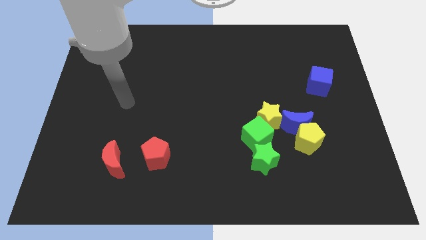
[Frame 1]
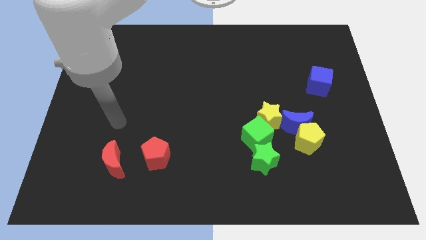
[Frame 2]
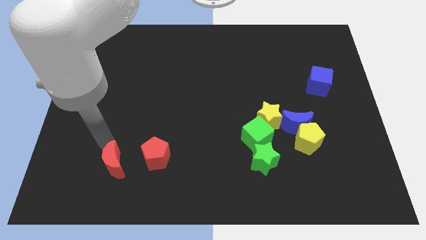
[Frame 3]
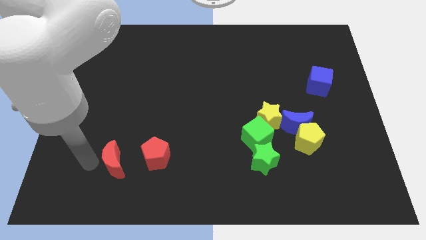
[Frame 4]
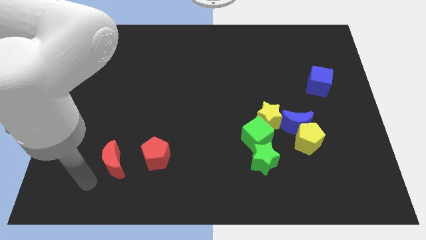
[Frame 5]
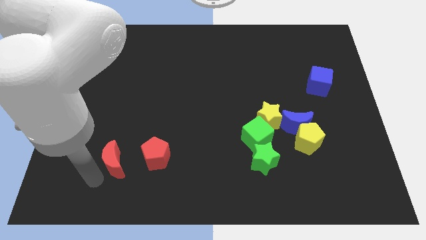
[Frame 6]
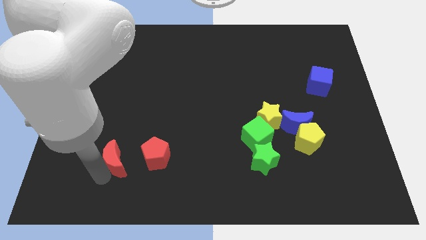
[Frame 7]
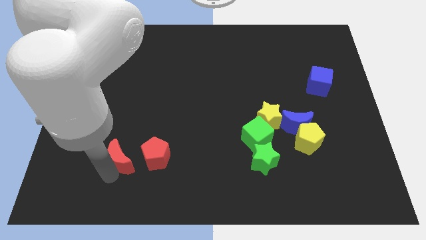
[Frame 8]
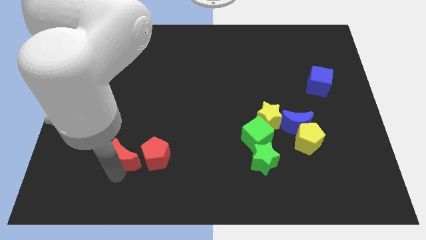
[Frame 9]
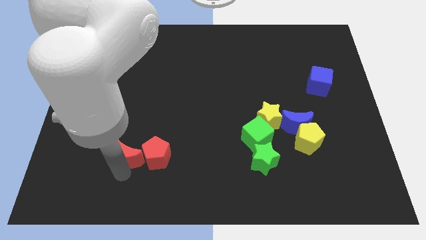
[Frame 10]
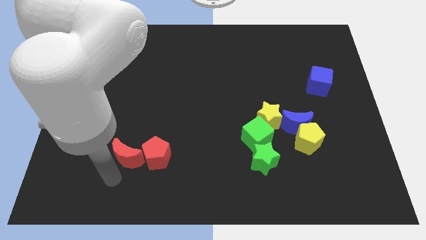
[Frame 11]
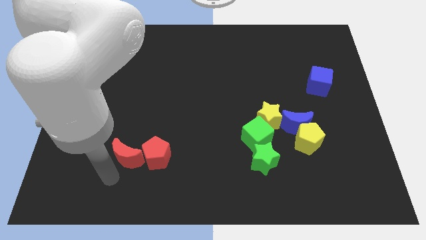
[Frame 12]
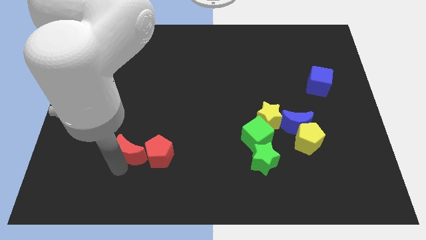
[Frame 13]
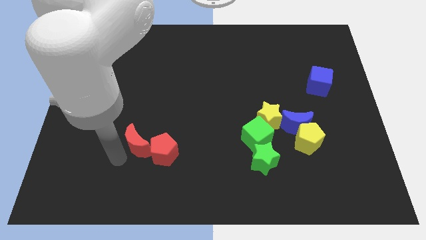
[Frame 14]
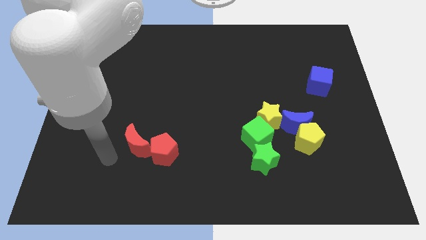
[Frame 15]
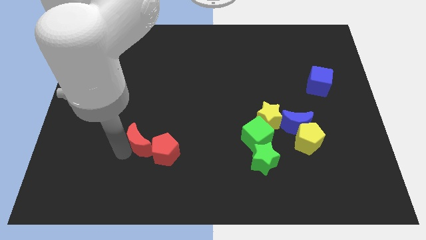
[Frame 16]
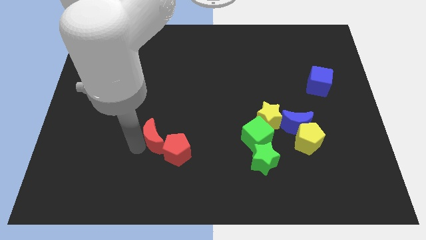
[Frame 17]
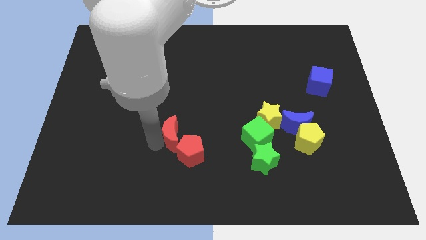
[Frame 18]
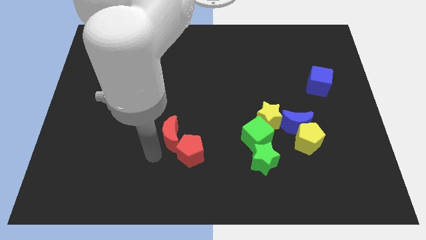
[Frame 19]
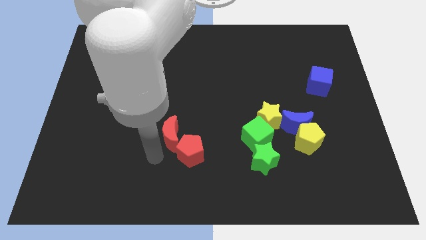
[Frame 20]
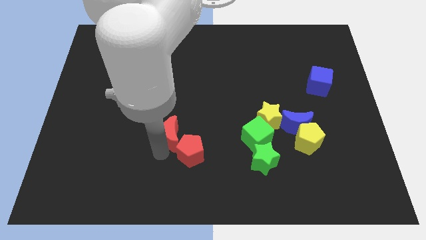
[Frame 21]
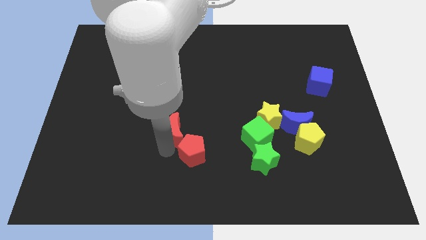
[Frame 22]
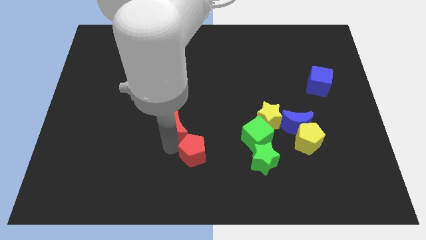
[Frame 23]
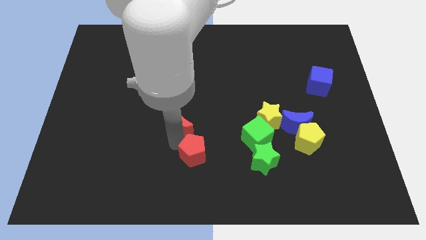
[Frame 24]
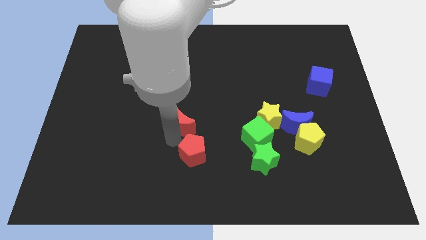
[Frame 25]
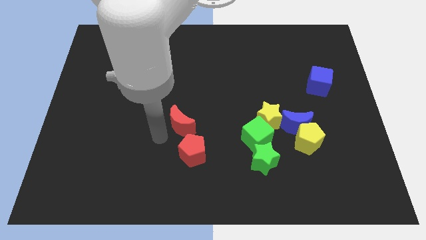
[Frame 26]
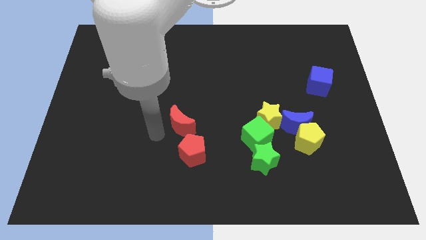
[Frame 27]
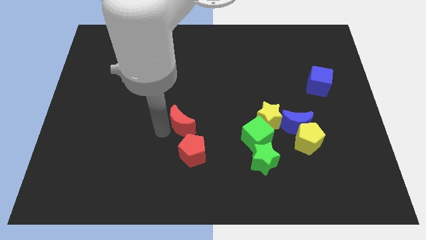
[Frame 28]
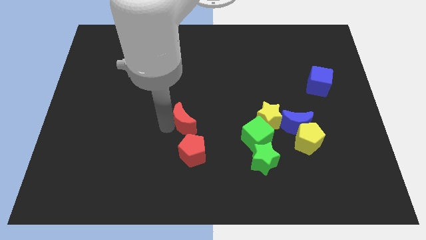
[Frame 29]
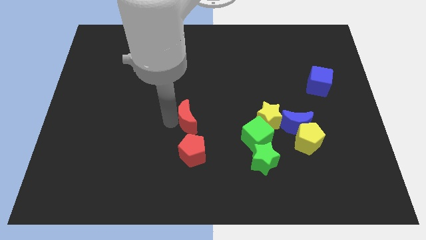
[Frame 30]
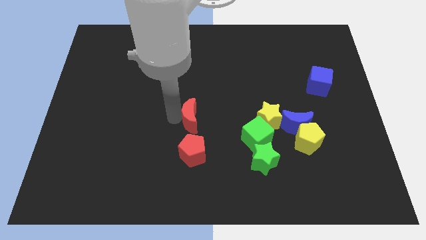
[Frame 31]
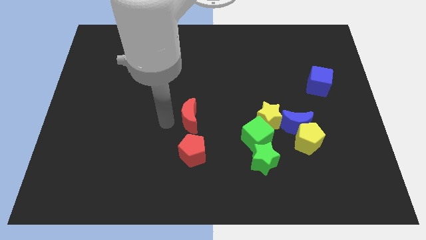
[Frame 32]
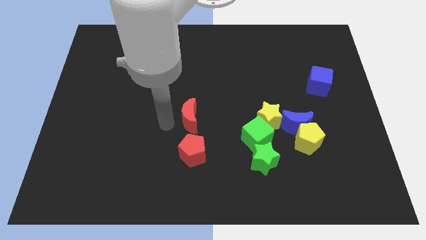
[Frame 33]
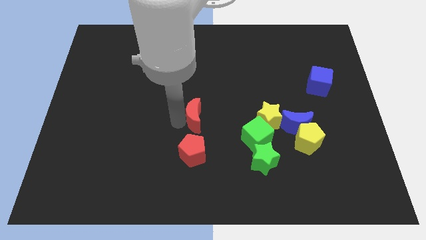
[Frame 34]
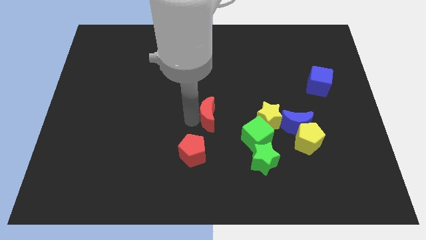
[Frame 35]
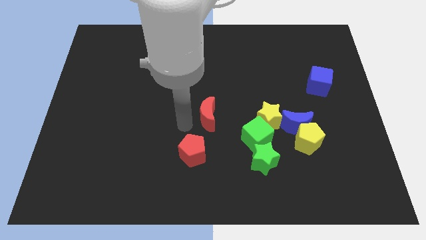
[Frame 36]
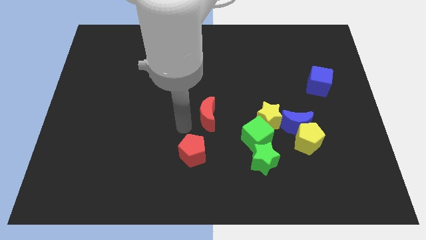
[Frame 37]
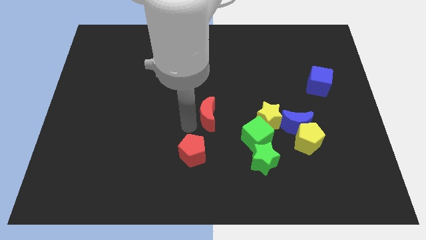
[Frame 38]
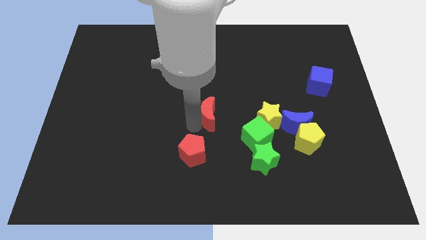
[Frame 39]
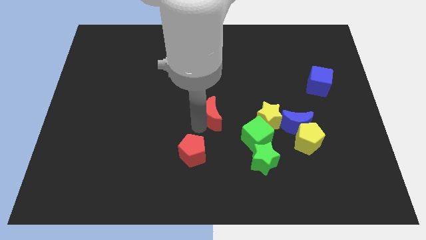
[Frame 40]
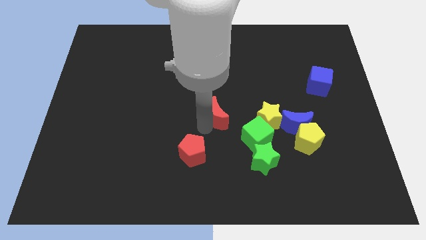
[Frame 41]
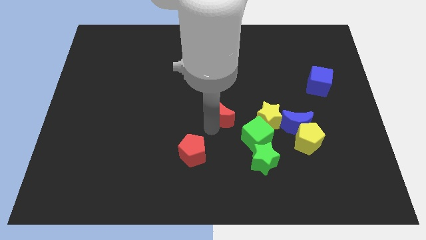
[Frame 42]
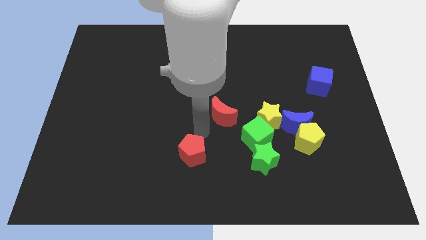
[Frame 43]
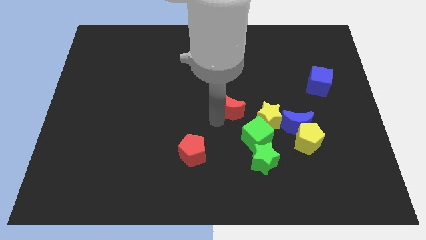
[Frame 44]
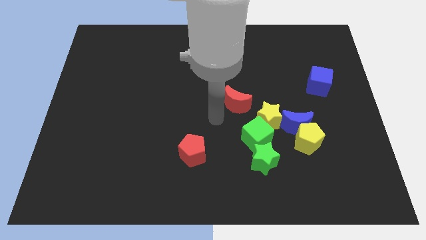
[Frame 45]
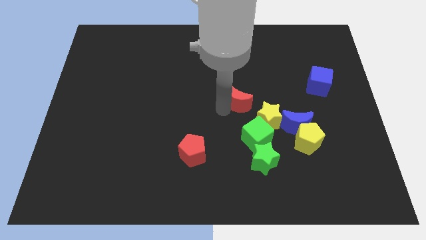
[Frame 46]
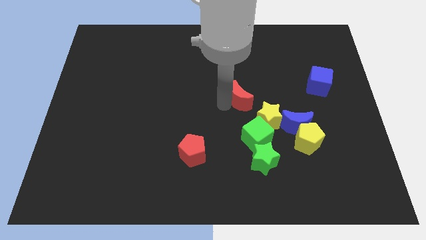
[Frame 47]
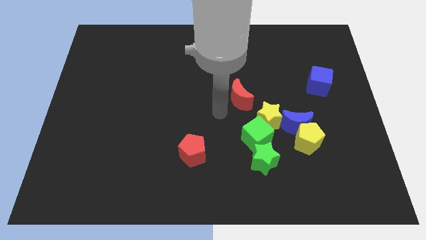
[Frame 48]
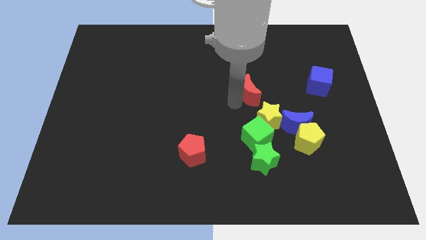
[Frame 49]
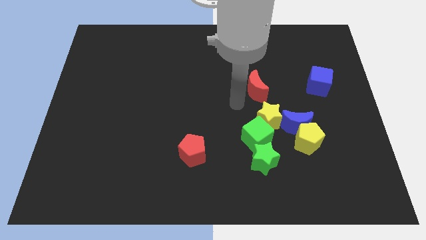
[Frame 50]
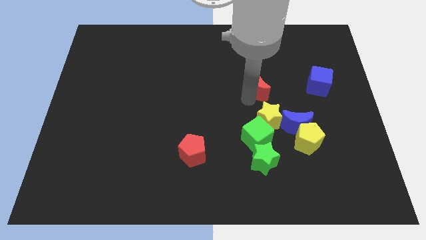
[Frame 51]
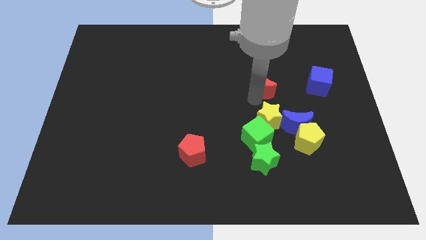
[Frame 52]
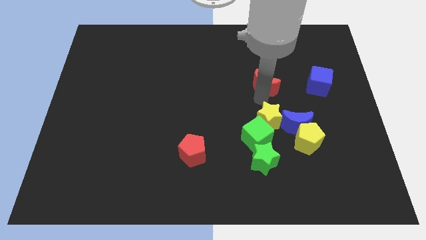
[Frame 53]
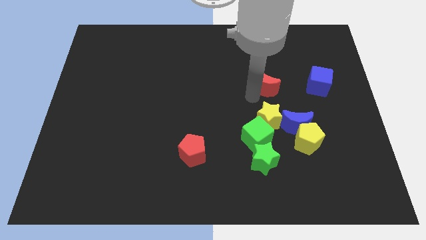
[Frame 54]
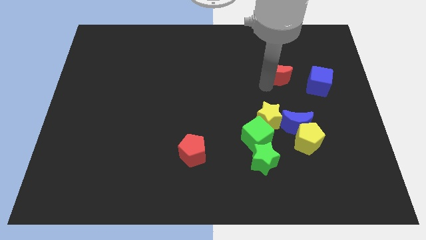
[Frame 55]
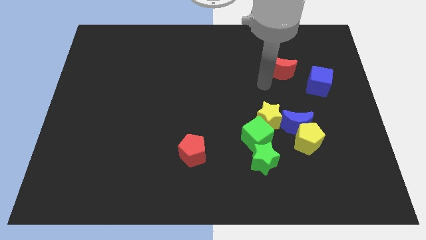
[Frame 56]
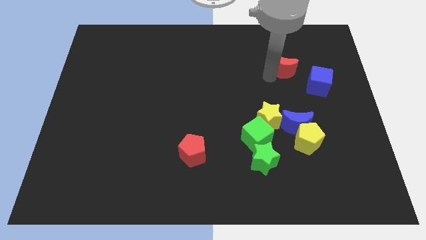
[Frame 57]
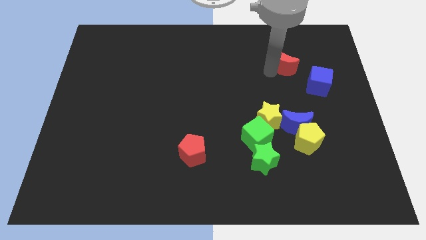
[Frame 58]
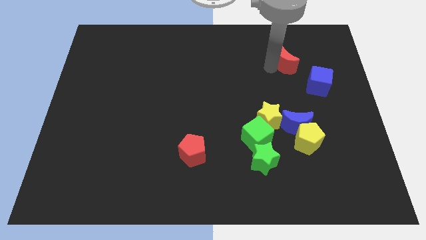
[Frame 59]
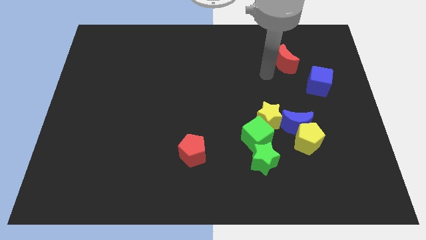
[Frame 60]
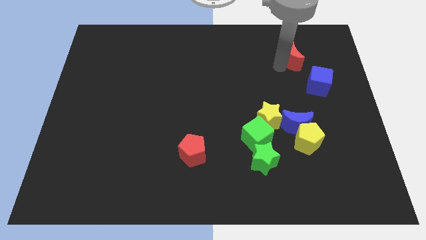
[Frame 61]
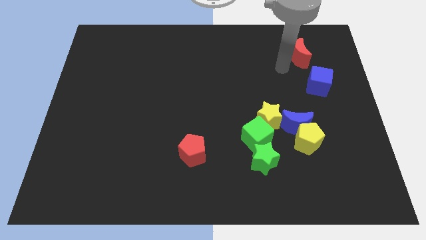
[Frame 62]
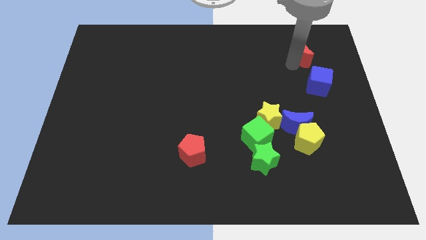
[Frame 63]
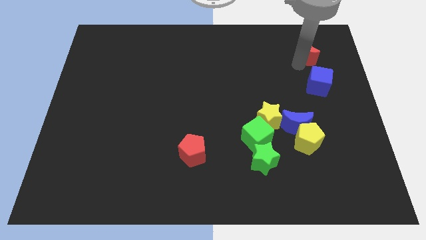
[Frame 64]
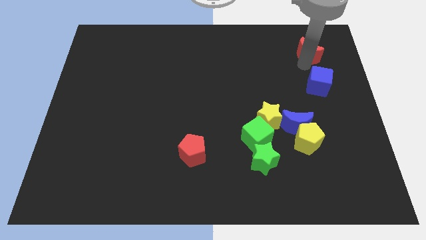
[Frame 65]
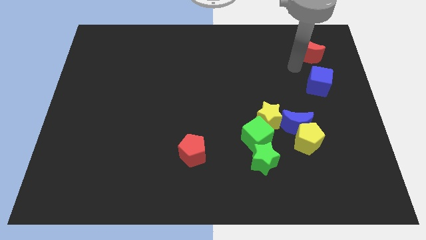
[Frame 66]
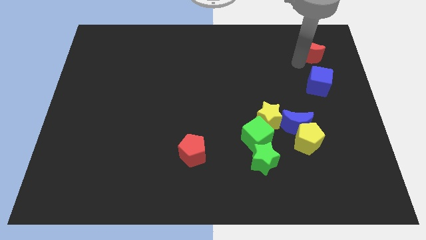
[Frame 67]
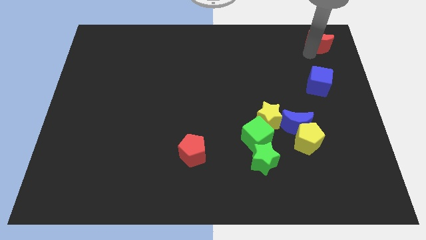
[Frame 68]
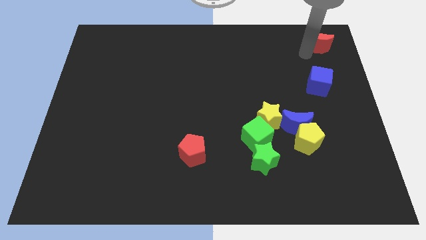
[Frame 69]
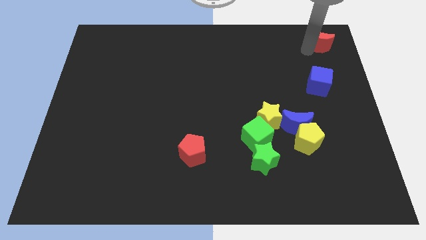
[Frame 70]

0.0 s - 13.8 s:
slide the red moon to the upper right corner

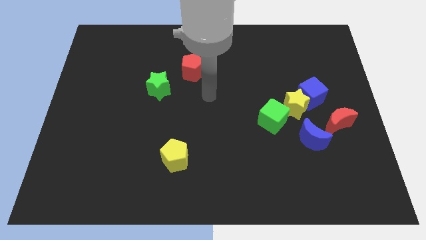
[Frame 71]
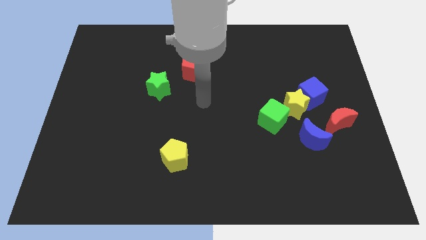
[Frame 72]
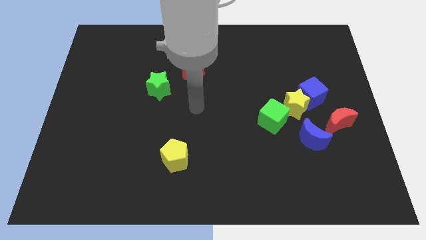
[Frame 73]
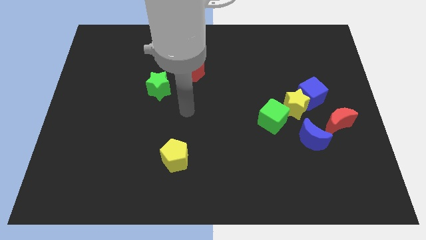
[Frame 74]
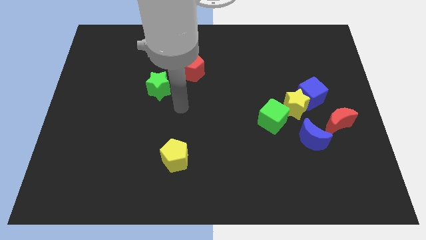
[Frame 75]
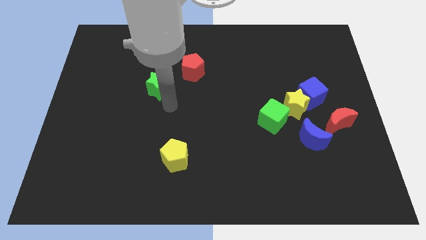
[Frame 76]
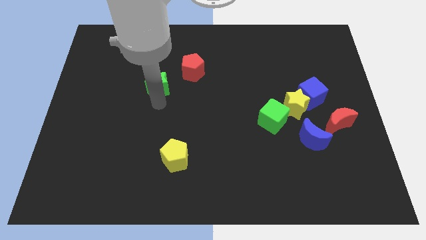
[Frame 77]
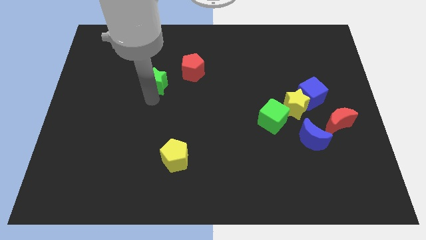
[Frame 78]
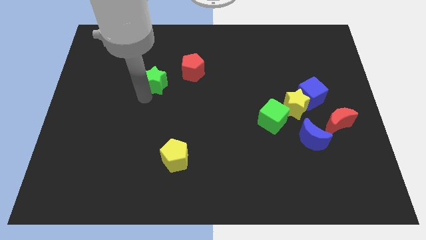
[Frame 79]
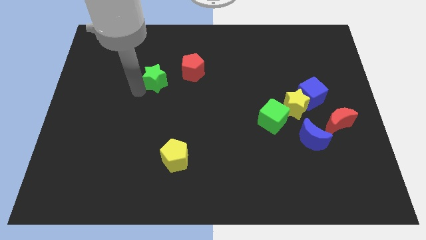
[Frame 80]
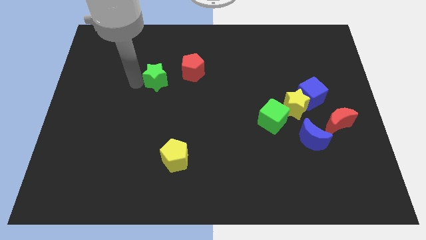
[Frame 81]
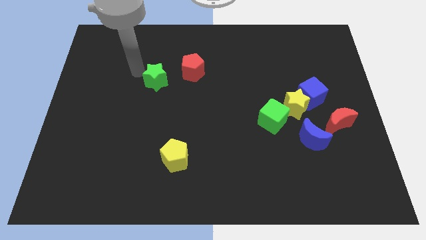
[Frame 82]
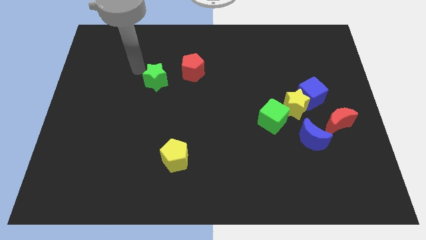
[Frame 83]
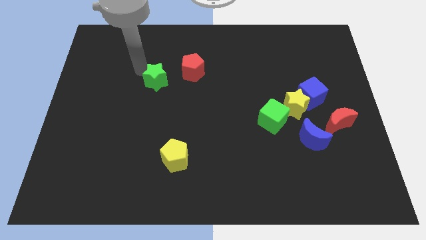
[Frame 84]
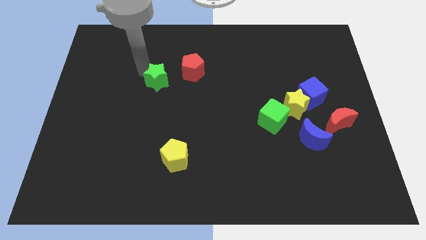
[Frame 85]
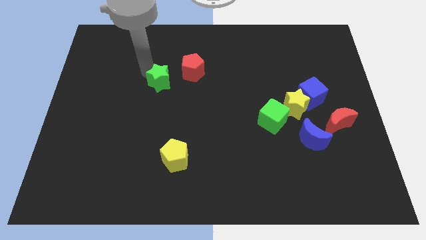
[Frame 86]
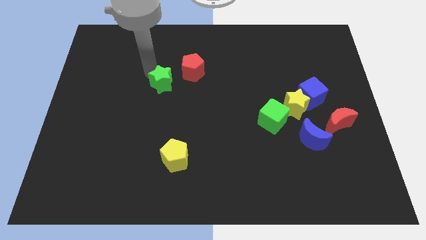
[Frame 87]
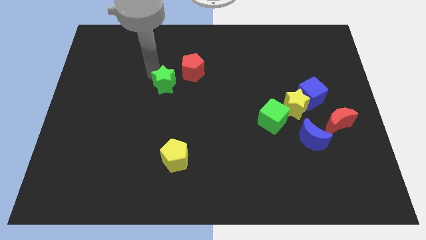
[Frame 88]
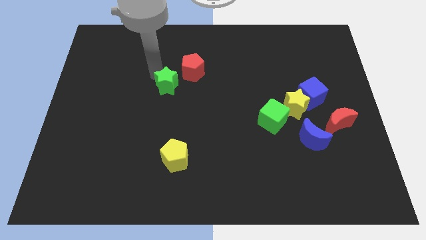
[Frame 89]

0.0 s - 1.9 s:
slide the green star to the middle
